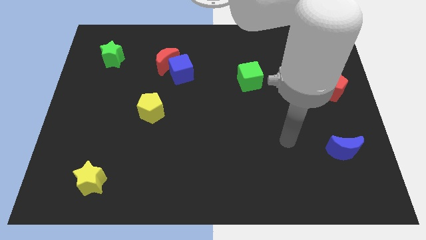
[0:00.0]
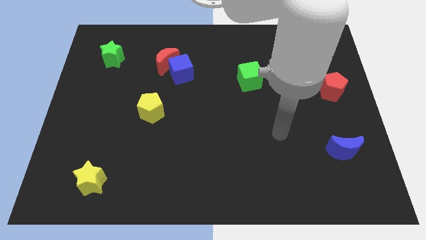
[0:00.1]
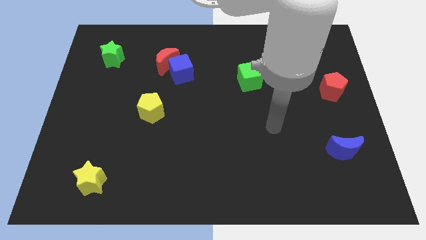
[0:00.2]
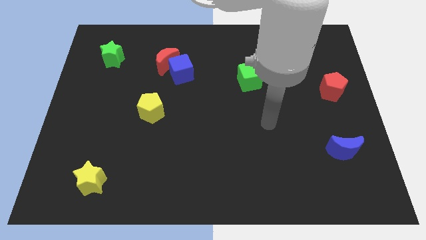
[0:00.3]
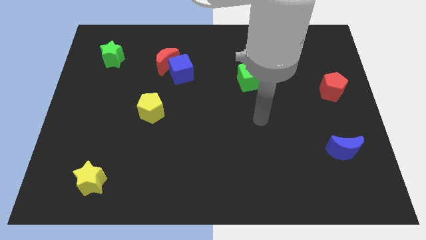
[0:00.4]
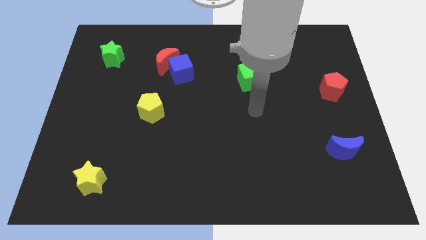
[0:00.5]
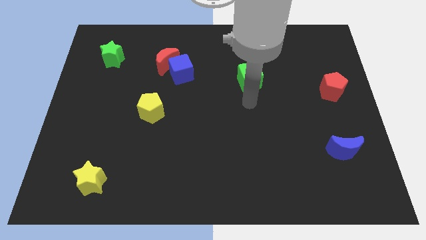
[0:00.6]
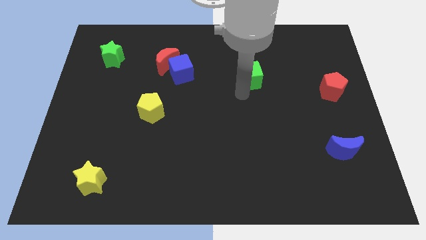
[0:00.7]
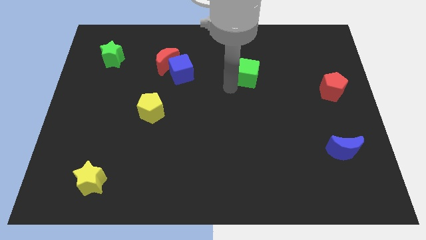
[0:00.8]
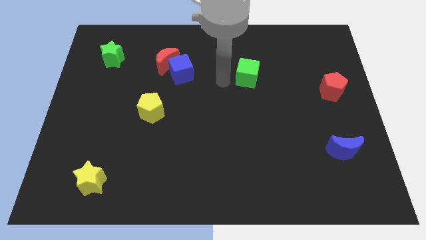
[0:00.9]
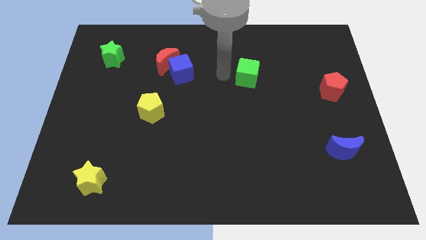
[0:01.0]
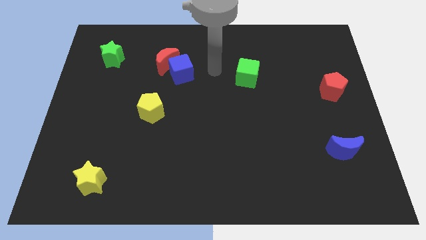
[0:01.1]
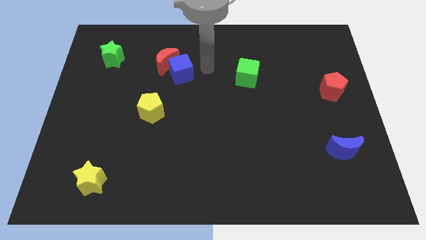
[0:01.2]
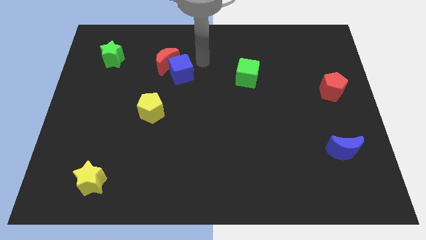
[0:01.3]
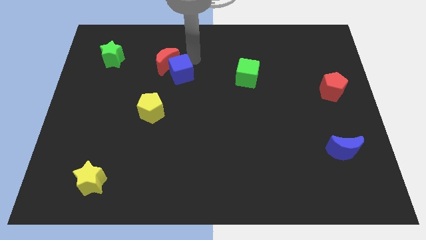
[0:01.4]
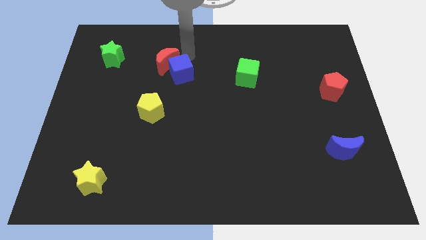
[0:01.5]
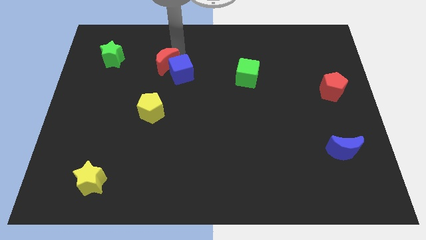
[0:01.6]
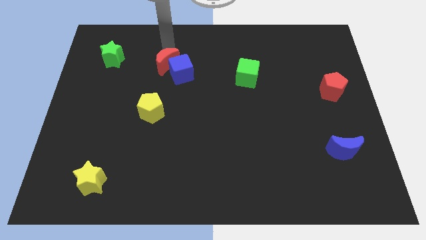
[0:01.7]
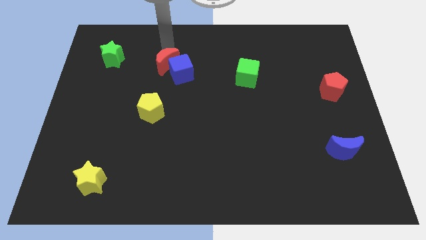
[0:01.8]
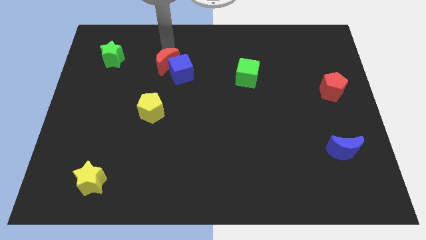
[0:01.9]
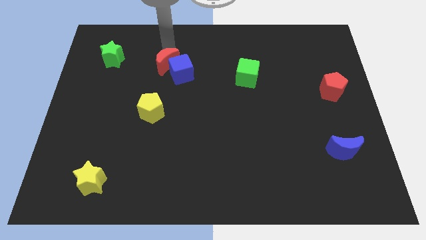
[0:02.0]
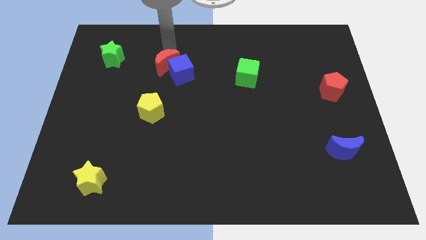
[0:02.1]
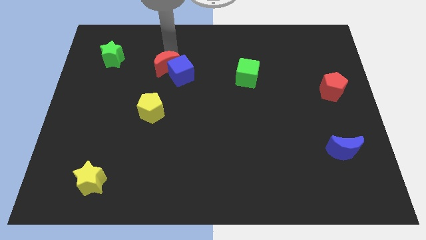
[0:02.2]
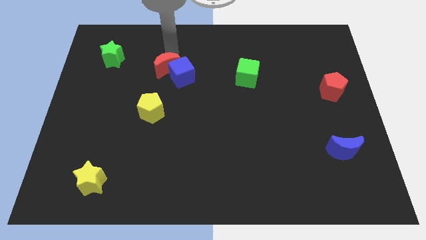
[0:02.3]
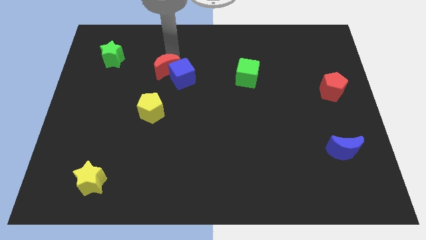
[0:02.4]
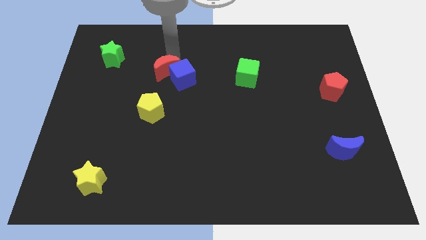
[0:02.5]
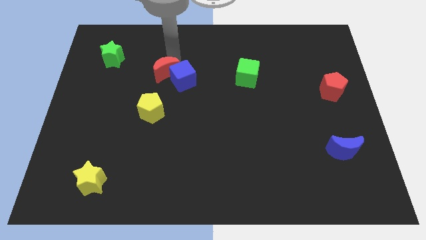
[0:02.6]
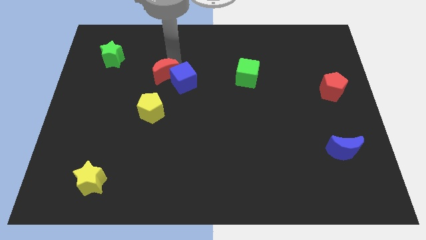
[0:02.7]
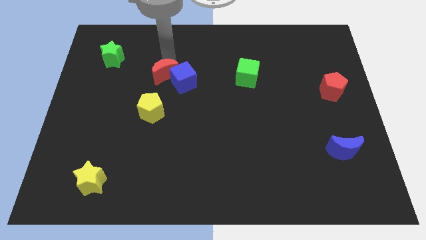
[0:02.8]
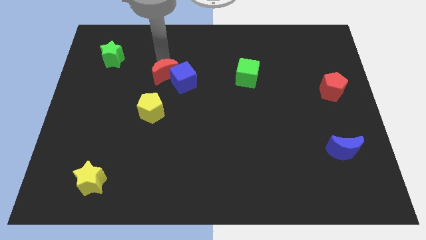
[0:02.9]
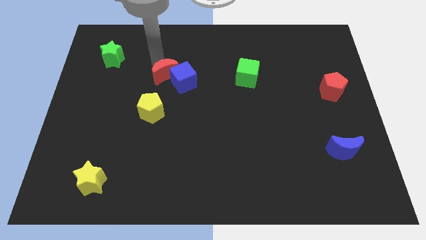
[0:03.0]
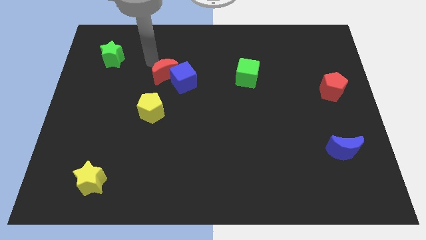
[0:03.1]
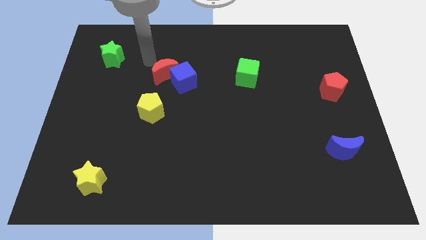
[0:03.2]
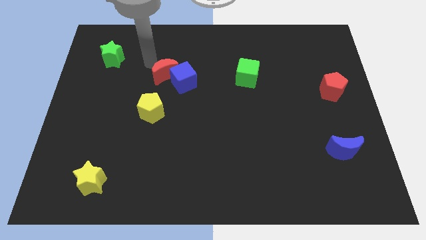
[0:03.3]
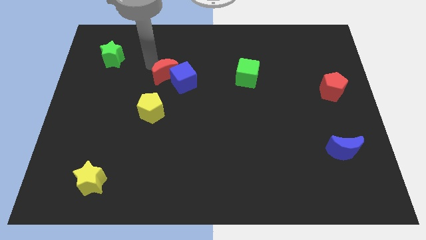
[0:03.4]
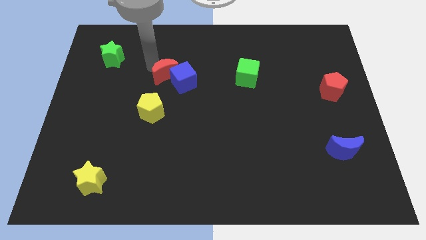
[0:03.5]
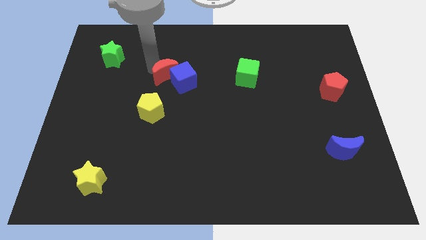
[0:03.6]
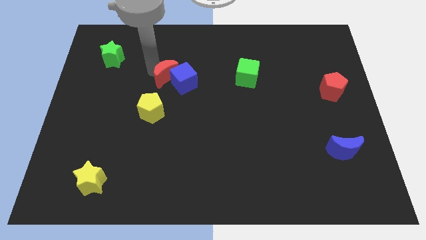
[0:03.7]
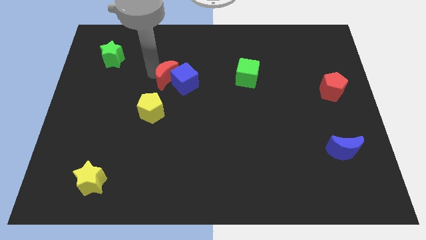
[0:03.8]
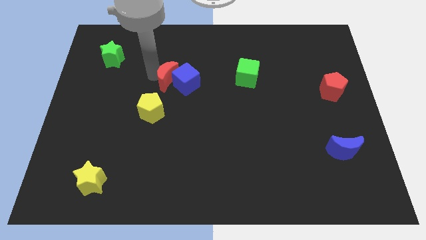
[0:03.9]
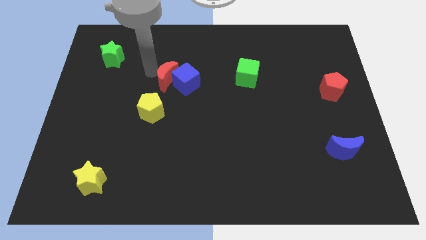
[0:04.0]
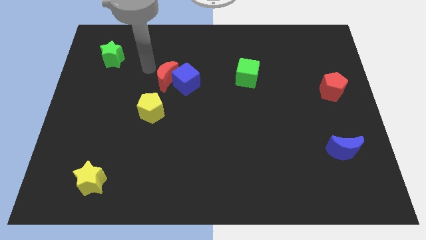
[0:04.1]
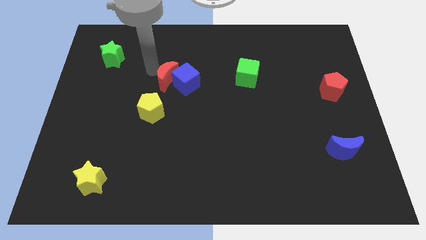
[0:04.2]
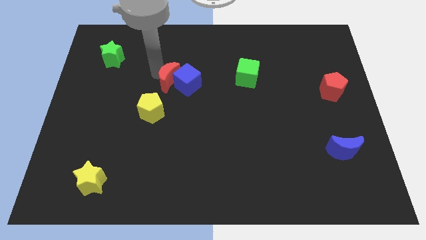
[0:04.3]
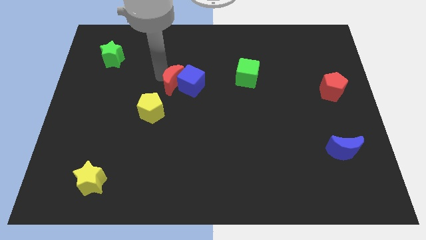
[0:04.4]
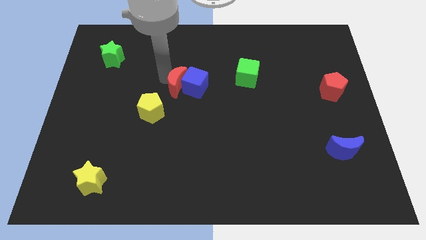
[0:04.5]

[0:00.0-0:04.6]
push the red moon a little downwards and then right

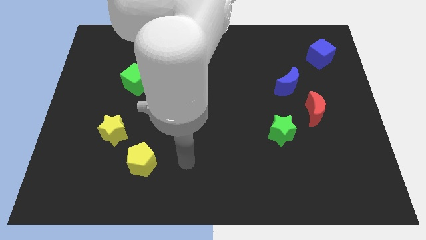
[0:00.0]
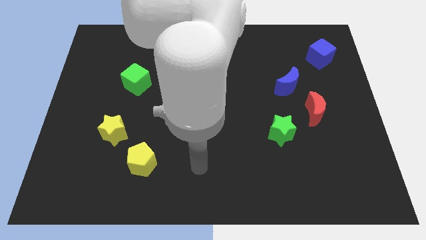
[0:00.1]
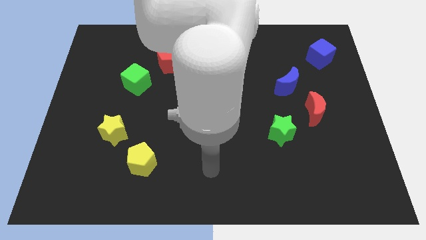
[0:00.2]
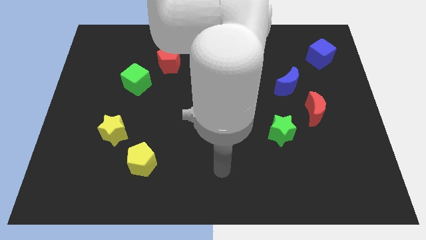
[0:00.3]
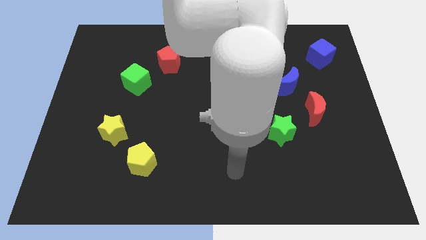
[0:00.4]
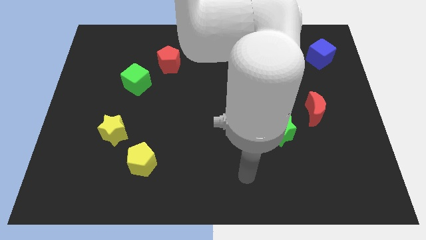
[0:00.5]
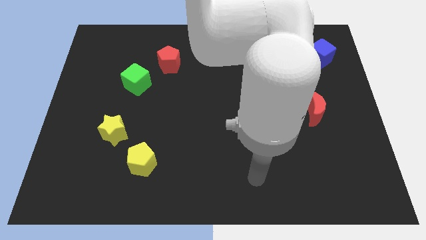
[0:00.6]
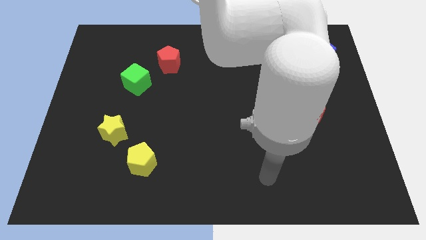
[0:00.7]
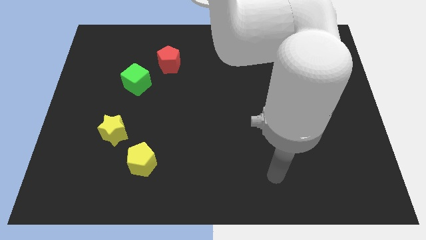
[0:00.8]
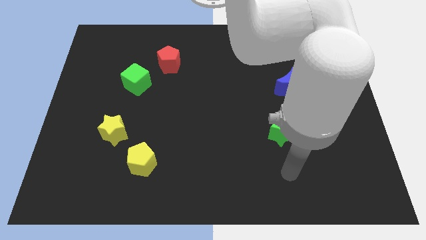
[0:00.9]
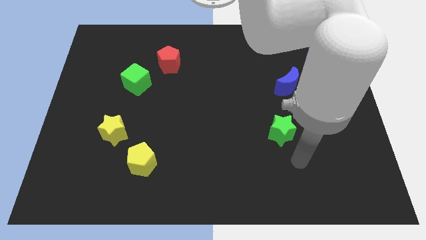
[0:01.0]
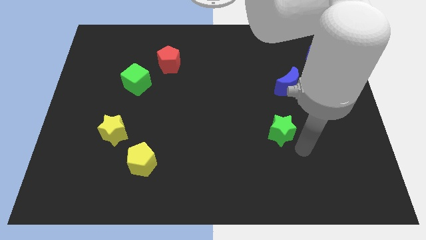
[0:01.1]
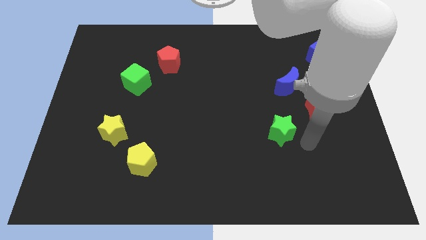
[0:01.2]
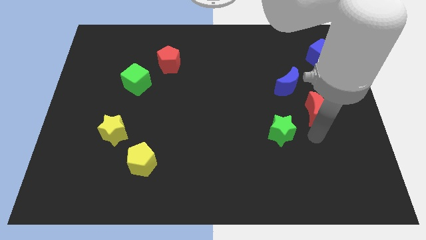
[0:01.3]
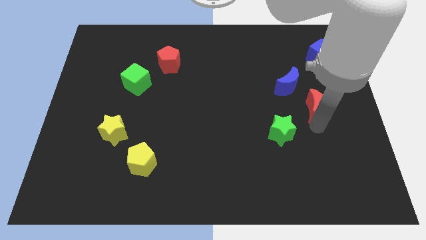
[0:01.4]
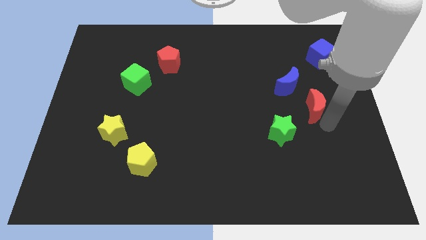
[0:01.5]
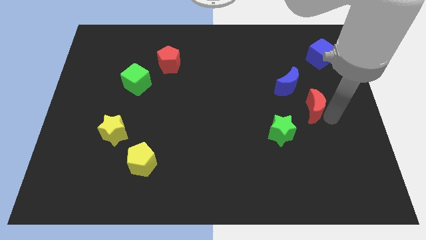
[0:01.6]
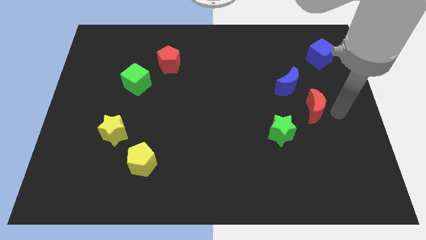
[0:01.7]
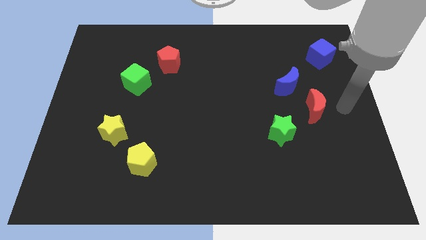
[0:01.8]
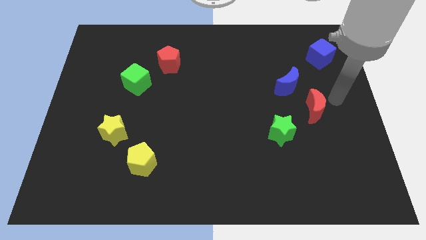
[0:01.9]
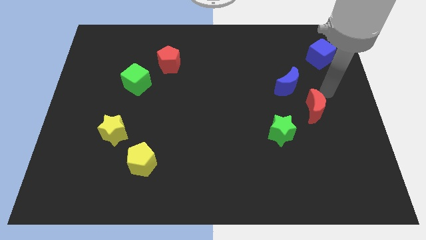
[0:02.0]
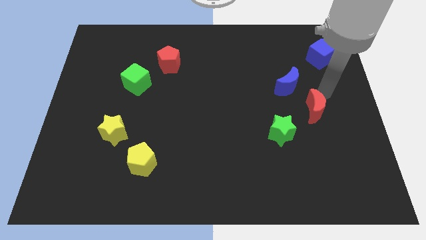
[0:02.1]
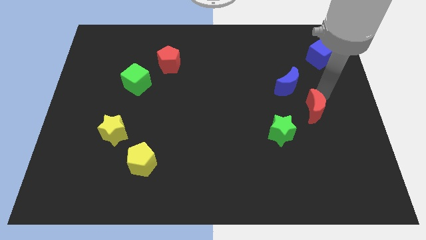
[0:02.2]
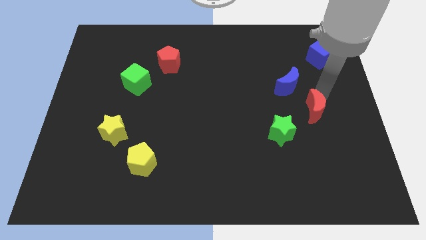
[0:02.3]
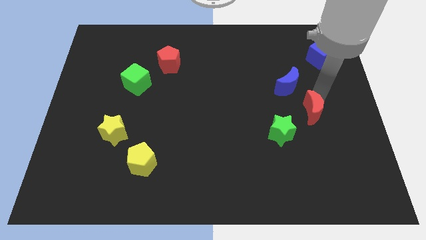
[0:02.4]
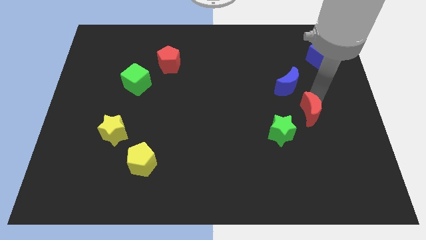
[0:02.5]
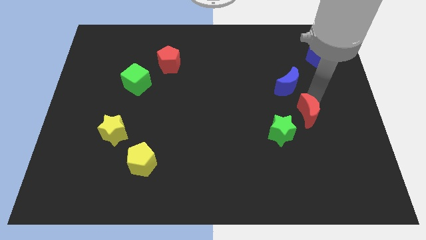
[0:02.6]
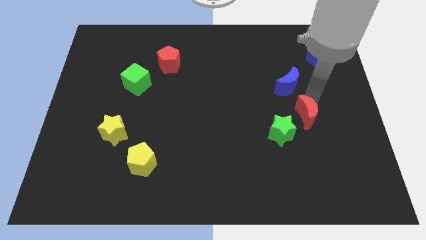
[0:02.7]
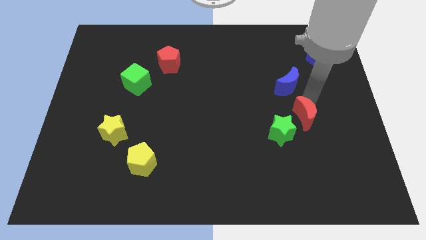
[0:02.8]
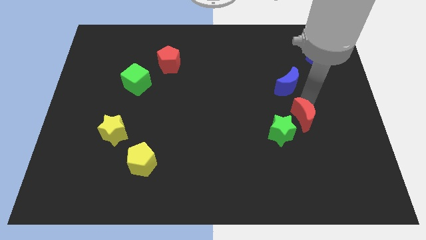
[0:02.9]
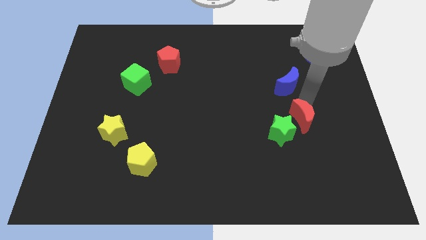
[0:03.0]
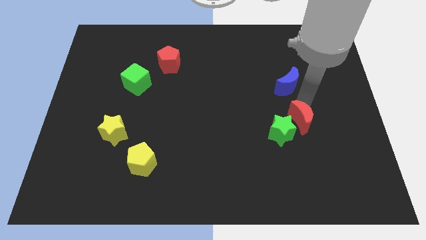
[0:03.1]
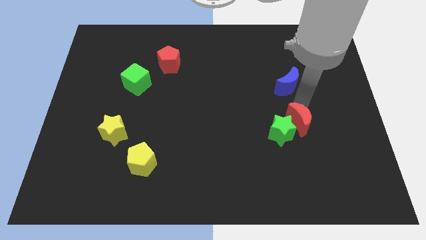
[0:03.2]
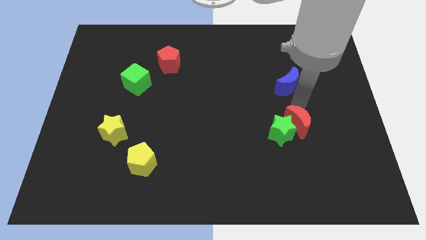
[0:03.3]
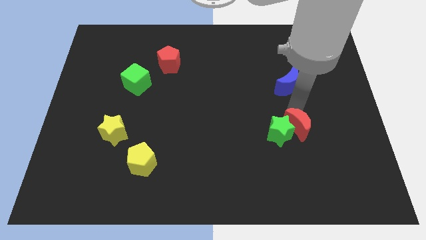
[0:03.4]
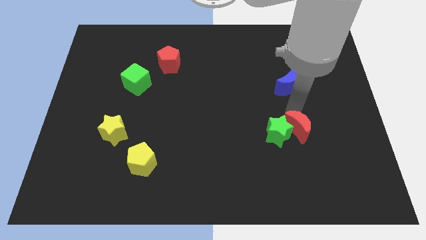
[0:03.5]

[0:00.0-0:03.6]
slide the red moon diagonally downwards and left a little
